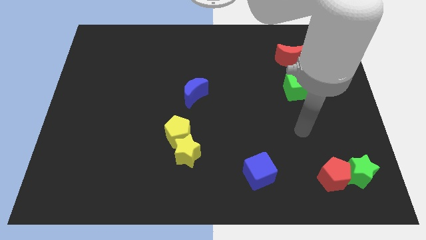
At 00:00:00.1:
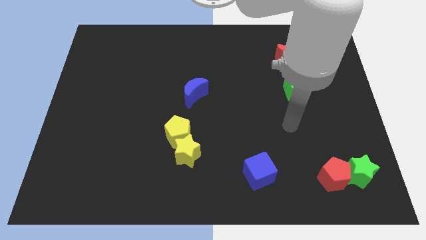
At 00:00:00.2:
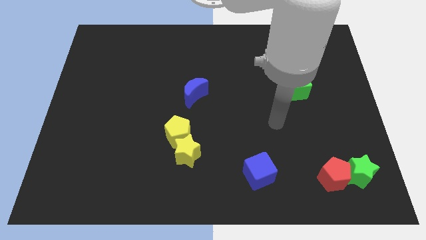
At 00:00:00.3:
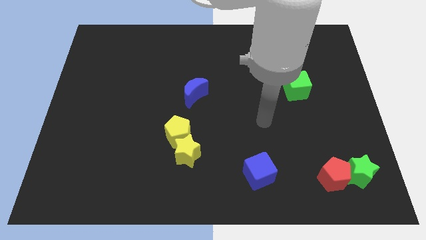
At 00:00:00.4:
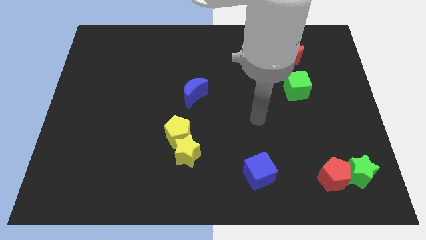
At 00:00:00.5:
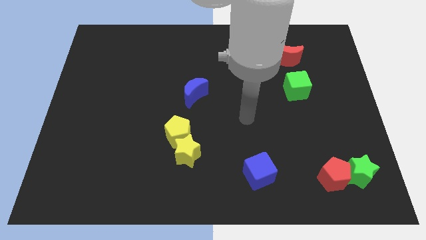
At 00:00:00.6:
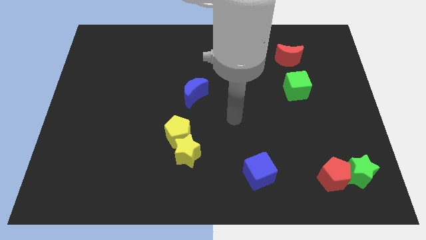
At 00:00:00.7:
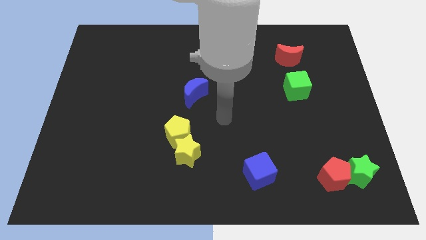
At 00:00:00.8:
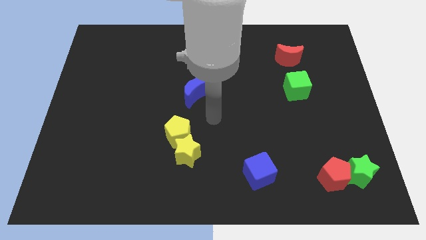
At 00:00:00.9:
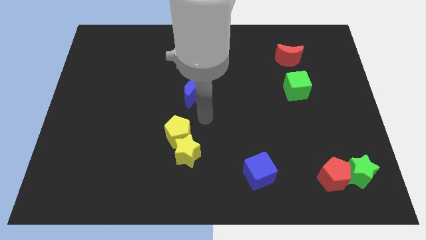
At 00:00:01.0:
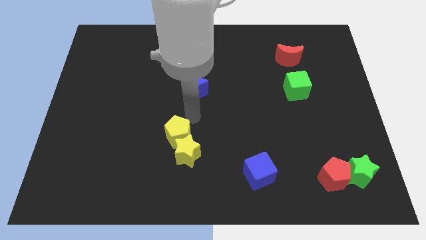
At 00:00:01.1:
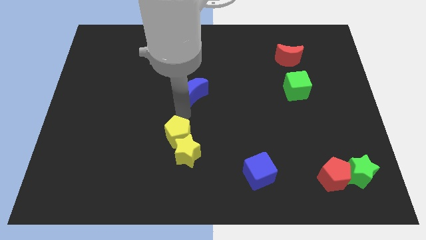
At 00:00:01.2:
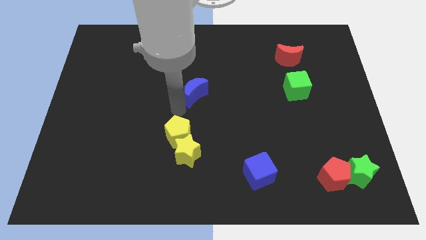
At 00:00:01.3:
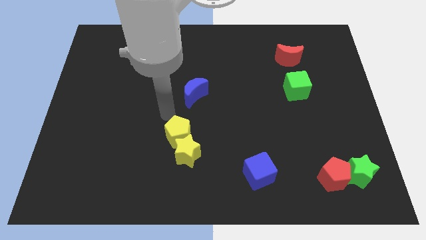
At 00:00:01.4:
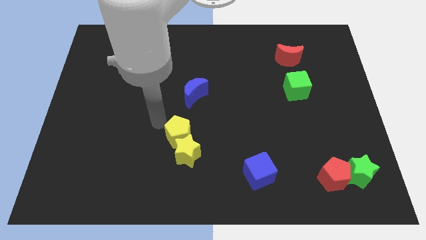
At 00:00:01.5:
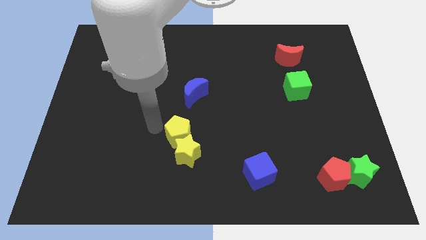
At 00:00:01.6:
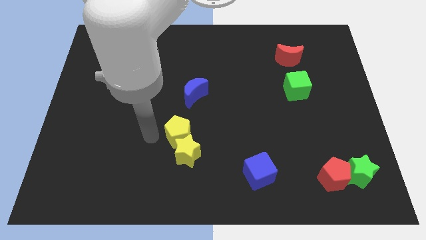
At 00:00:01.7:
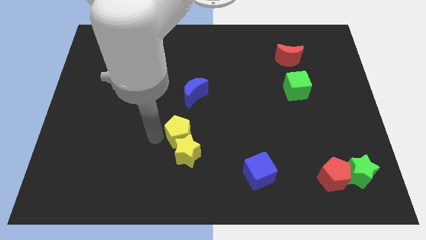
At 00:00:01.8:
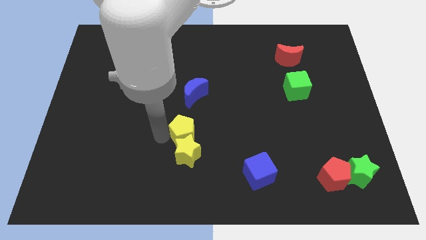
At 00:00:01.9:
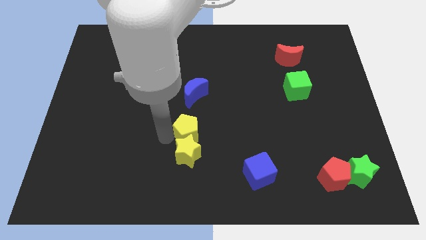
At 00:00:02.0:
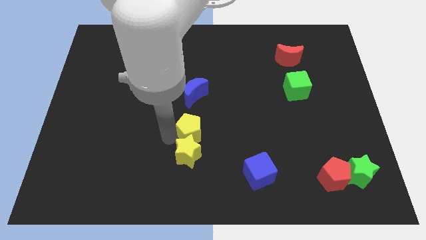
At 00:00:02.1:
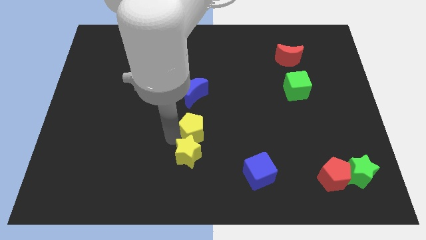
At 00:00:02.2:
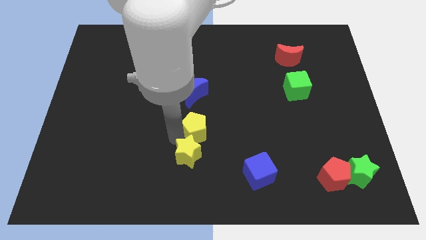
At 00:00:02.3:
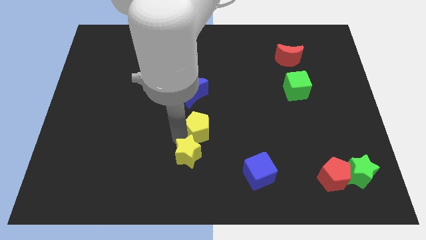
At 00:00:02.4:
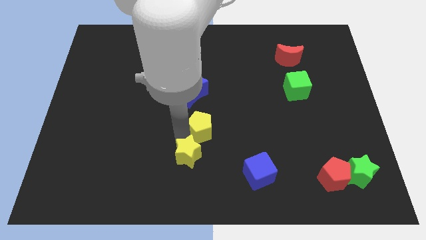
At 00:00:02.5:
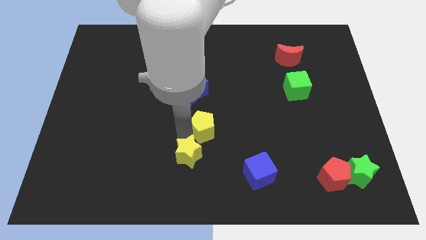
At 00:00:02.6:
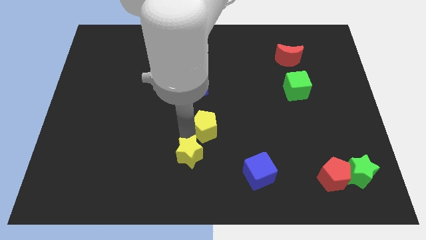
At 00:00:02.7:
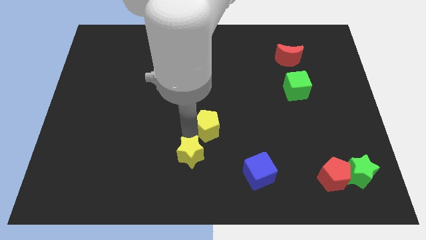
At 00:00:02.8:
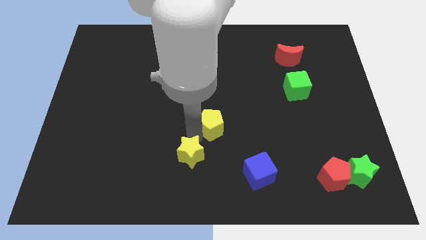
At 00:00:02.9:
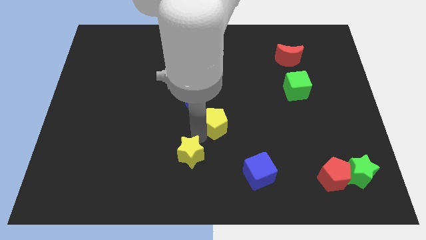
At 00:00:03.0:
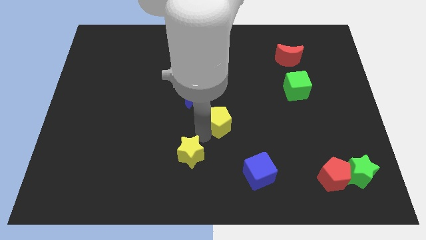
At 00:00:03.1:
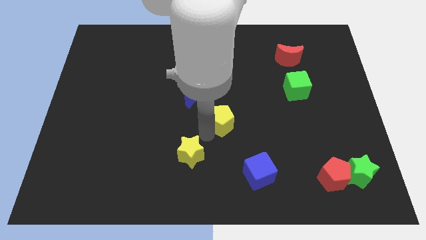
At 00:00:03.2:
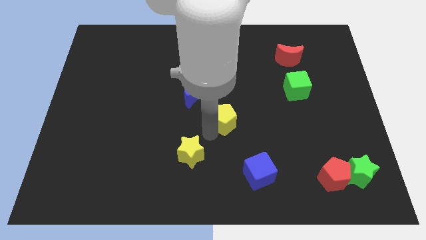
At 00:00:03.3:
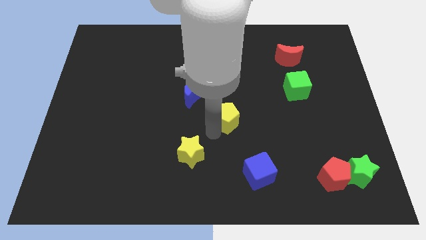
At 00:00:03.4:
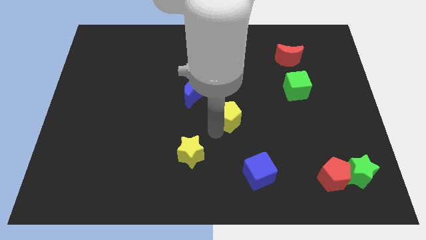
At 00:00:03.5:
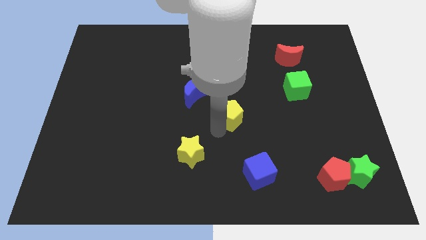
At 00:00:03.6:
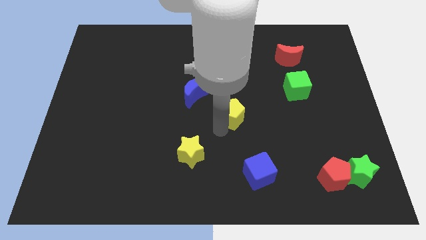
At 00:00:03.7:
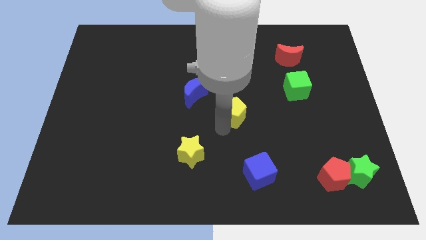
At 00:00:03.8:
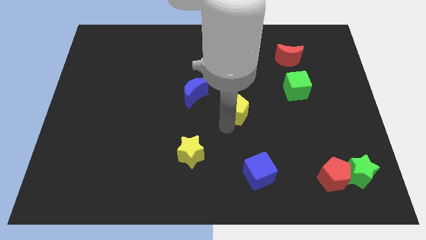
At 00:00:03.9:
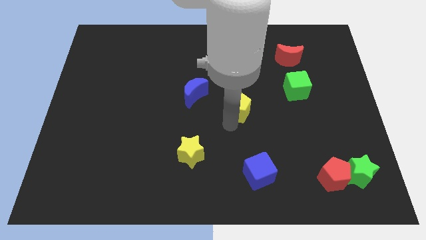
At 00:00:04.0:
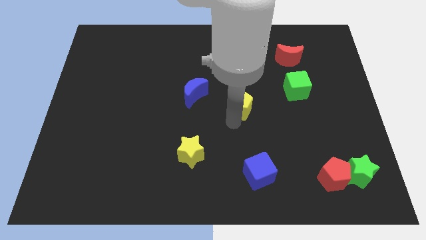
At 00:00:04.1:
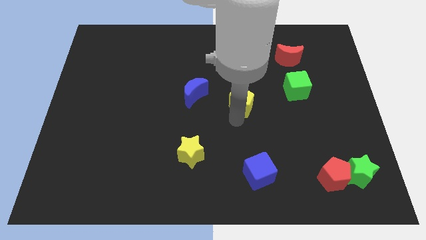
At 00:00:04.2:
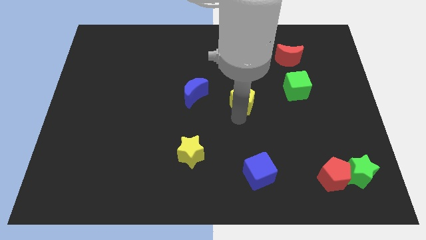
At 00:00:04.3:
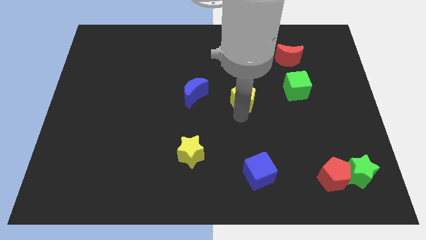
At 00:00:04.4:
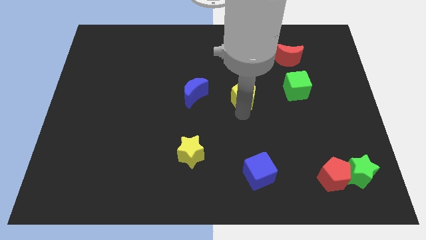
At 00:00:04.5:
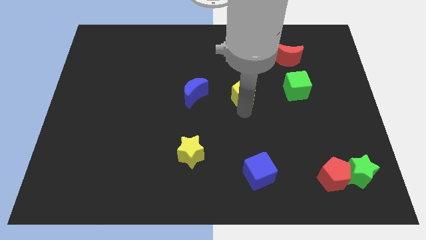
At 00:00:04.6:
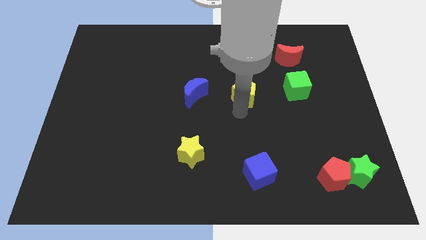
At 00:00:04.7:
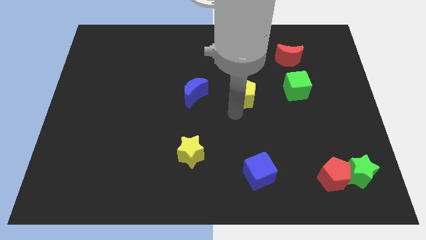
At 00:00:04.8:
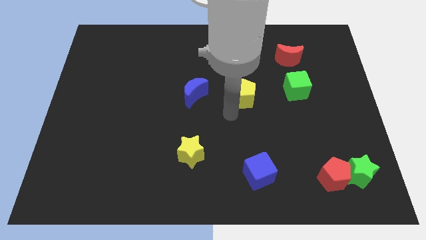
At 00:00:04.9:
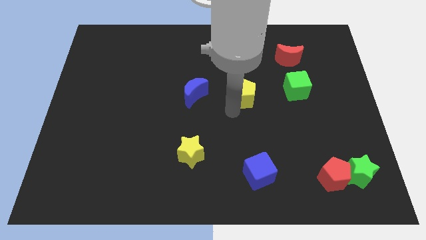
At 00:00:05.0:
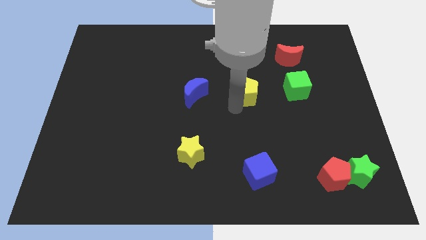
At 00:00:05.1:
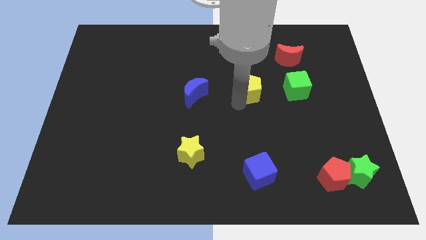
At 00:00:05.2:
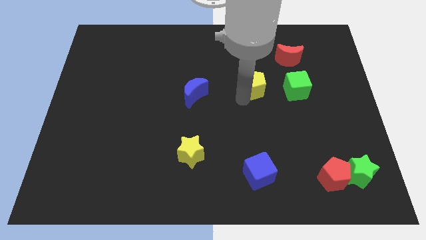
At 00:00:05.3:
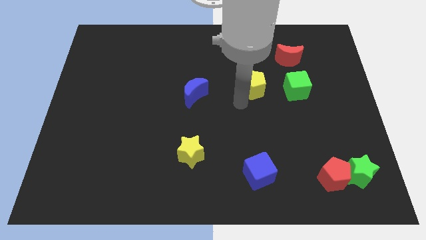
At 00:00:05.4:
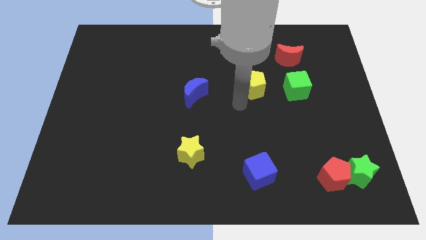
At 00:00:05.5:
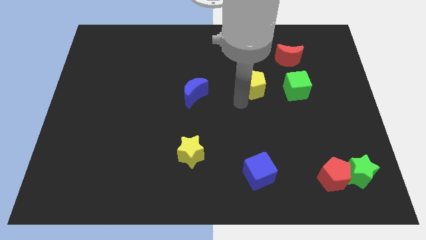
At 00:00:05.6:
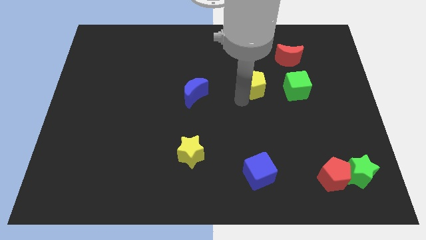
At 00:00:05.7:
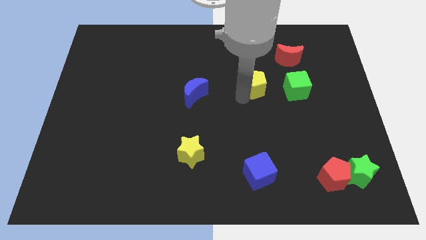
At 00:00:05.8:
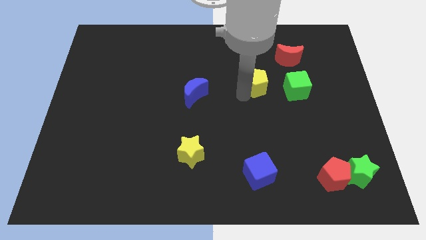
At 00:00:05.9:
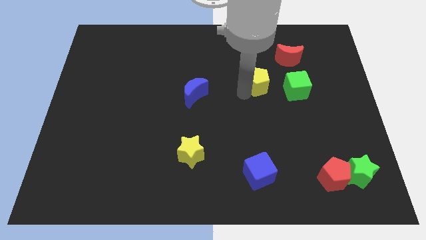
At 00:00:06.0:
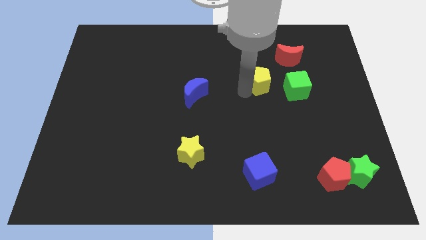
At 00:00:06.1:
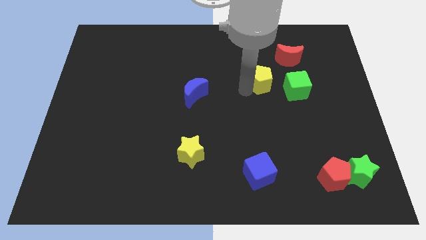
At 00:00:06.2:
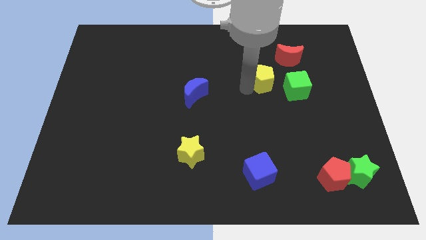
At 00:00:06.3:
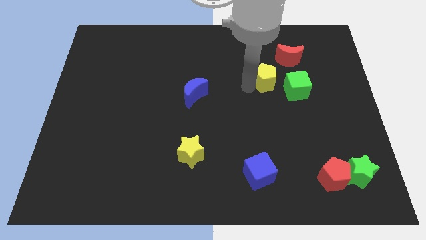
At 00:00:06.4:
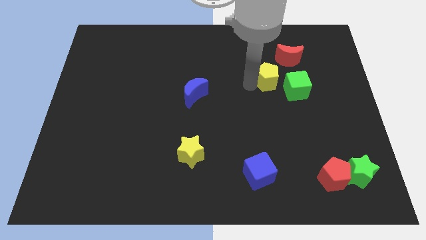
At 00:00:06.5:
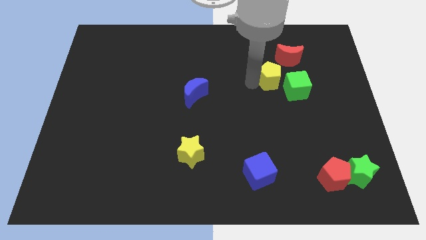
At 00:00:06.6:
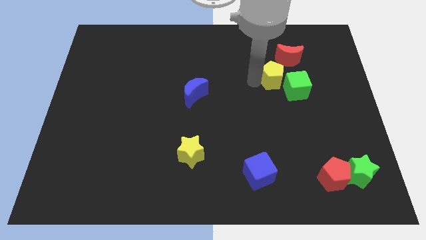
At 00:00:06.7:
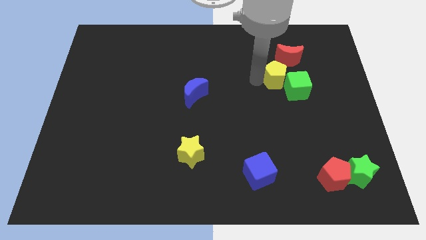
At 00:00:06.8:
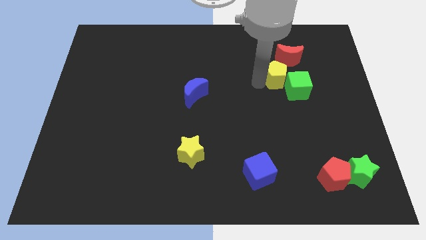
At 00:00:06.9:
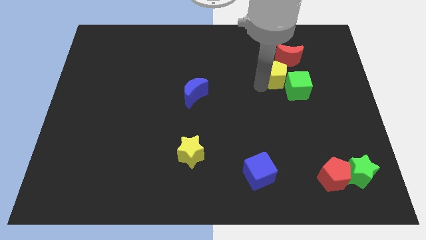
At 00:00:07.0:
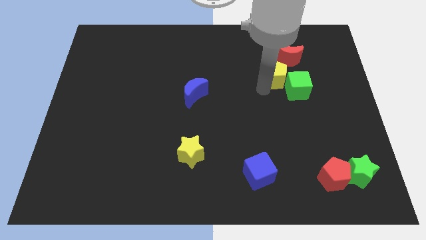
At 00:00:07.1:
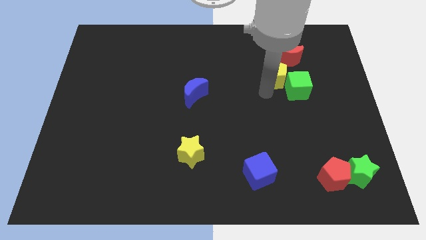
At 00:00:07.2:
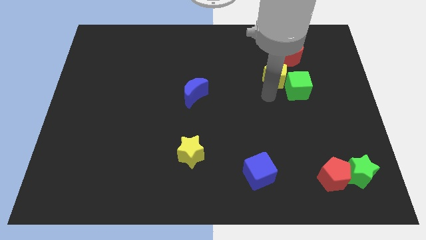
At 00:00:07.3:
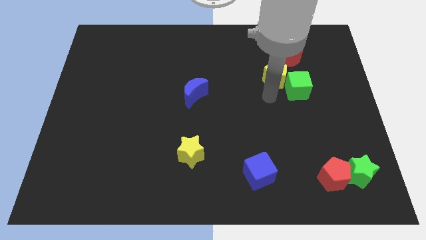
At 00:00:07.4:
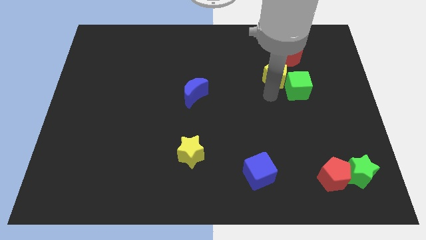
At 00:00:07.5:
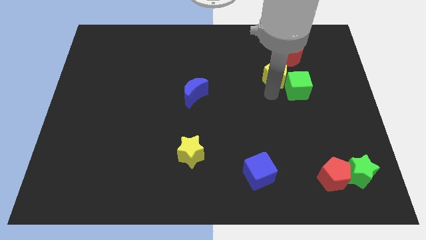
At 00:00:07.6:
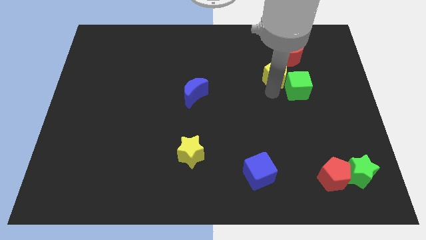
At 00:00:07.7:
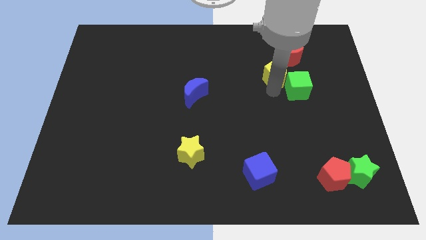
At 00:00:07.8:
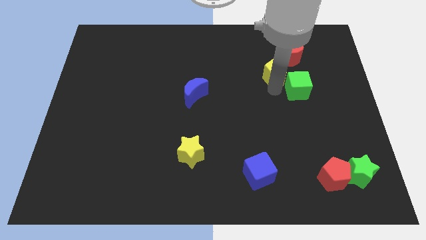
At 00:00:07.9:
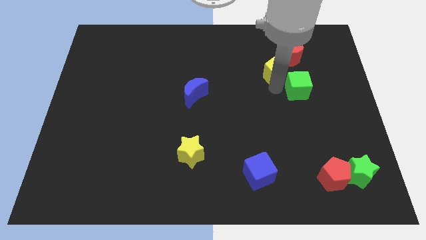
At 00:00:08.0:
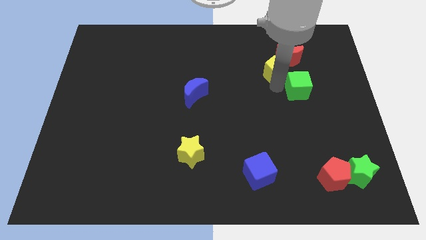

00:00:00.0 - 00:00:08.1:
put the yellow pentagon close to the red moon
